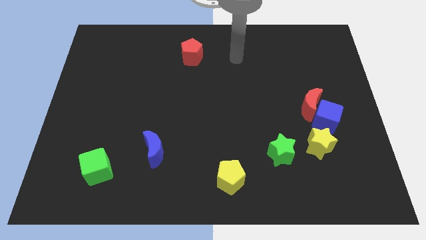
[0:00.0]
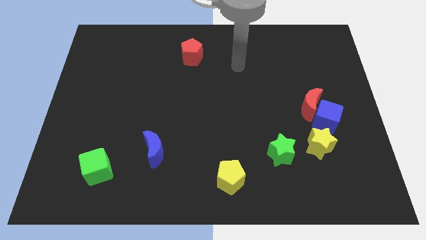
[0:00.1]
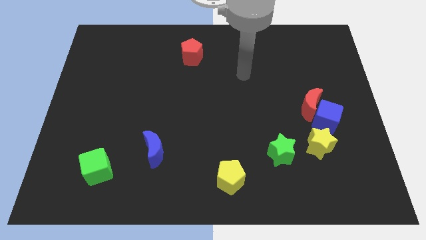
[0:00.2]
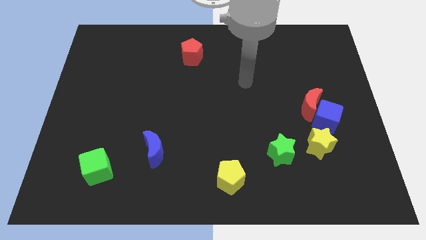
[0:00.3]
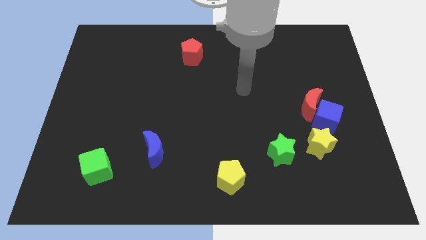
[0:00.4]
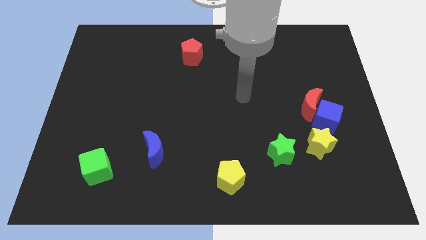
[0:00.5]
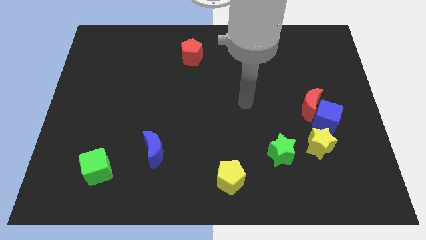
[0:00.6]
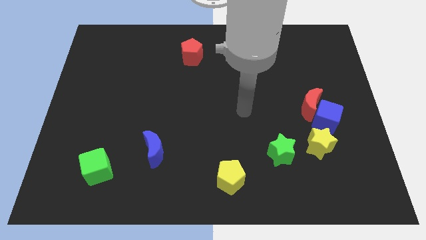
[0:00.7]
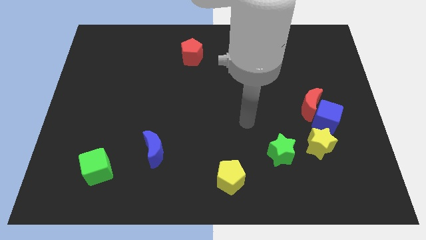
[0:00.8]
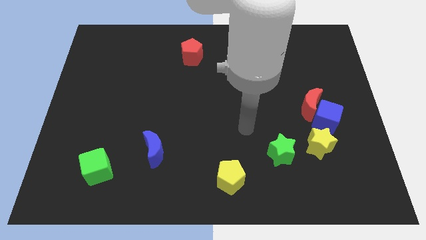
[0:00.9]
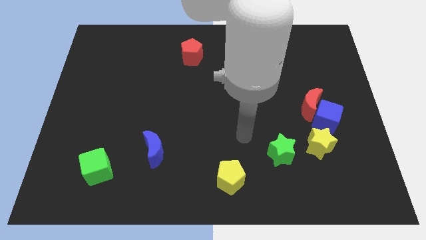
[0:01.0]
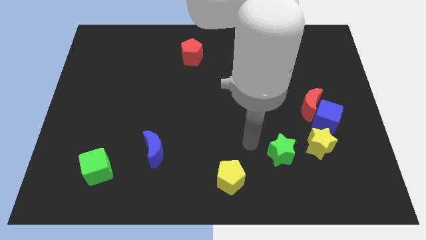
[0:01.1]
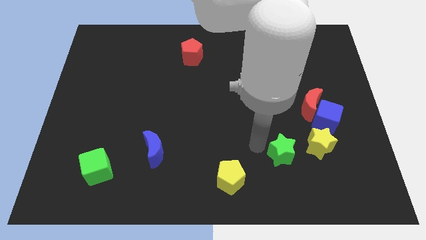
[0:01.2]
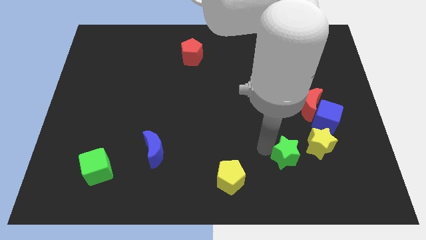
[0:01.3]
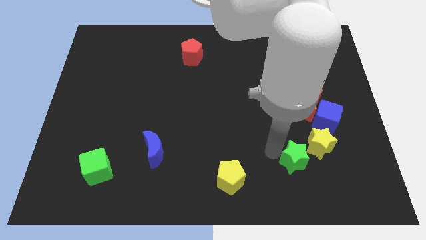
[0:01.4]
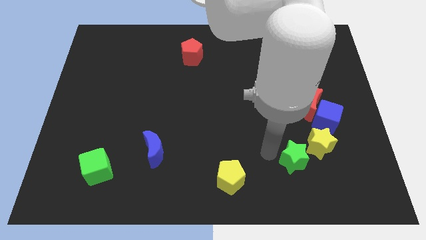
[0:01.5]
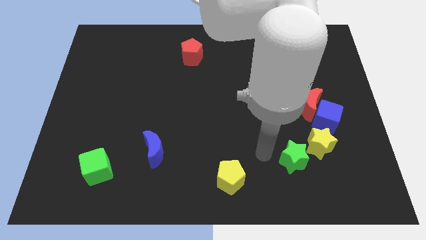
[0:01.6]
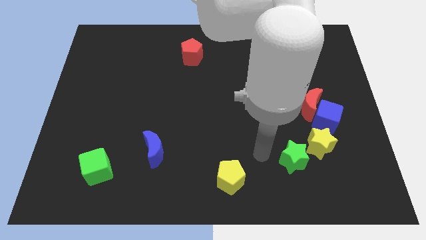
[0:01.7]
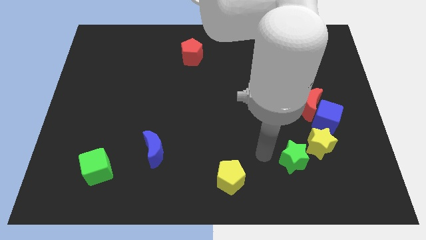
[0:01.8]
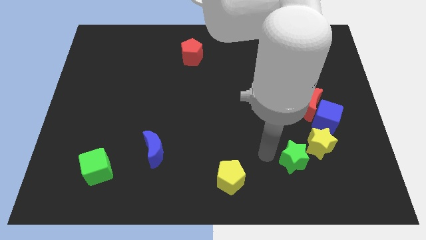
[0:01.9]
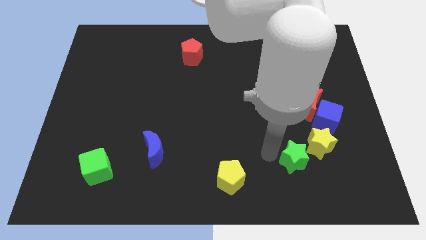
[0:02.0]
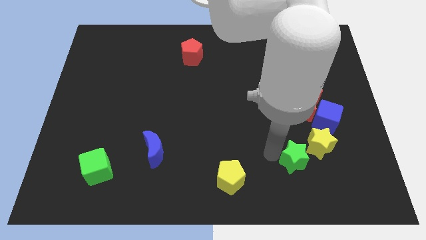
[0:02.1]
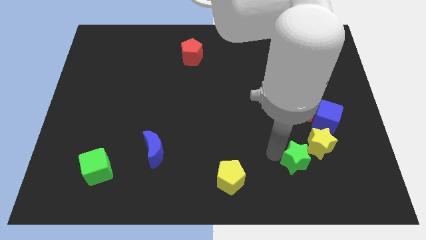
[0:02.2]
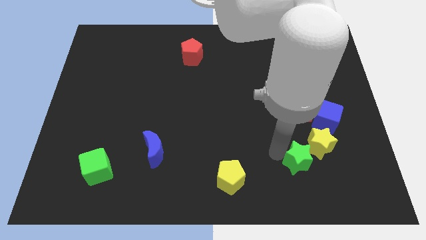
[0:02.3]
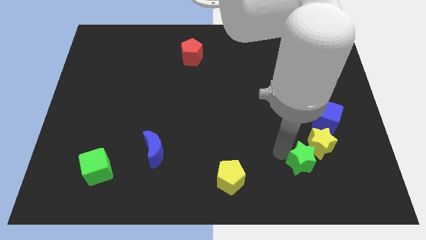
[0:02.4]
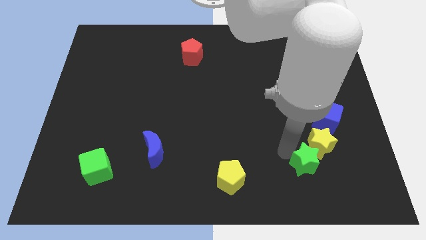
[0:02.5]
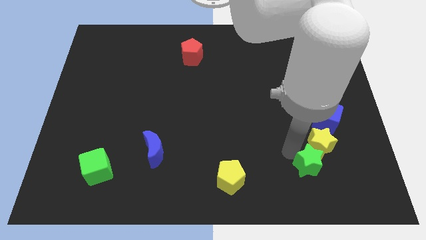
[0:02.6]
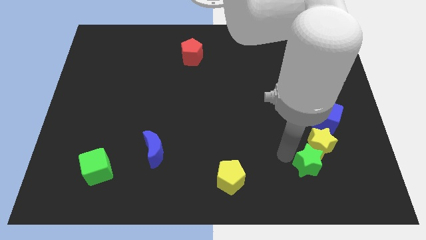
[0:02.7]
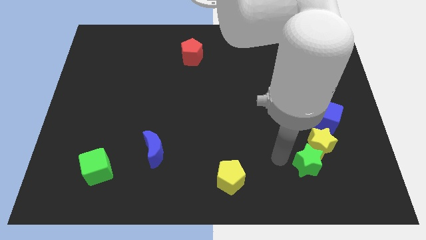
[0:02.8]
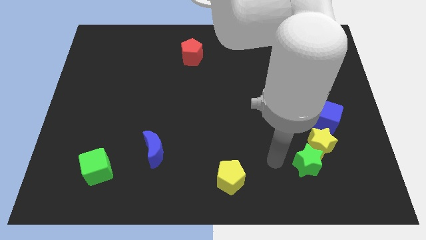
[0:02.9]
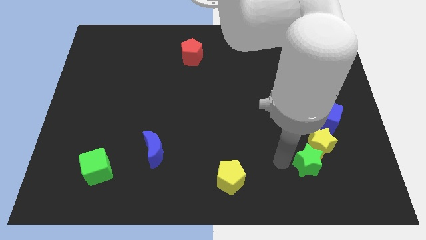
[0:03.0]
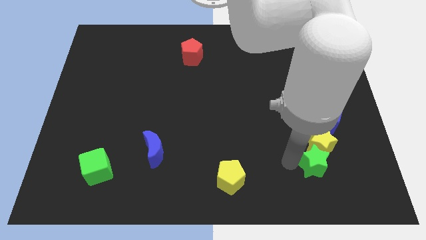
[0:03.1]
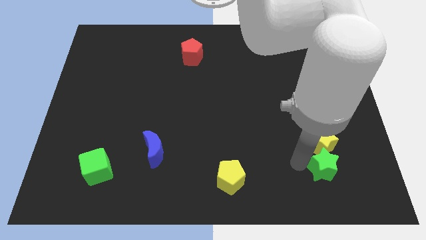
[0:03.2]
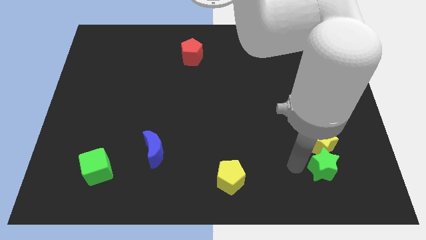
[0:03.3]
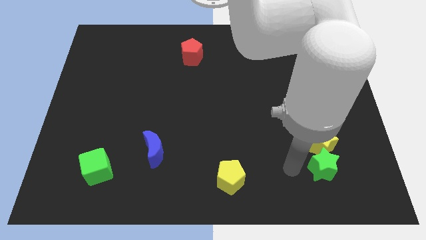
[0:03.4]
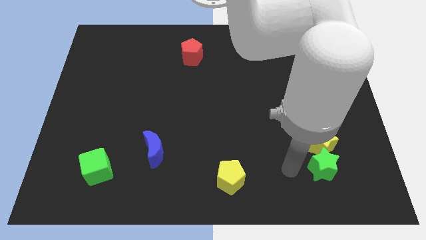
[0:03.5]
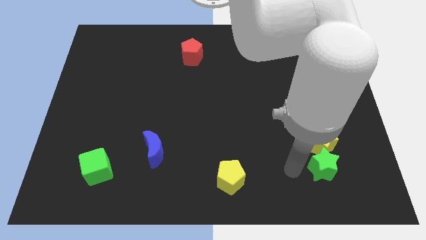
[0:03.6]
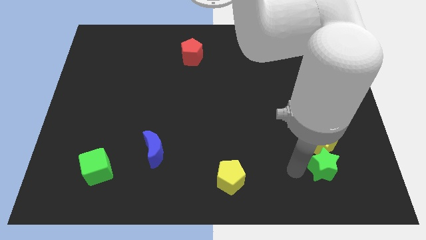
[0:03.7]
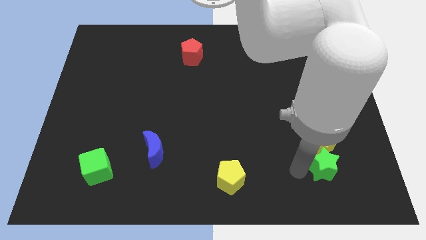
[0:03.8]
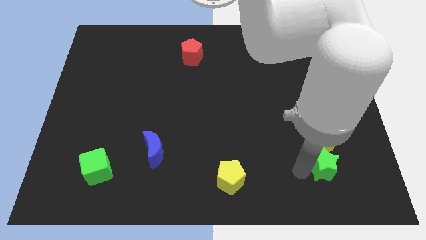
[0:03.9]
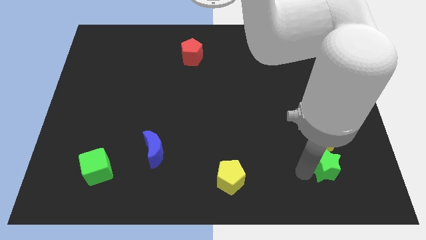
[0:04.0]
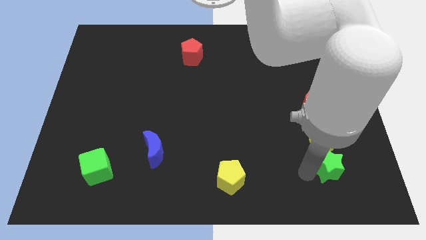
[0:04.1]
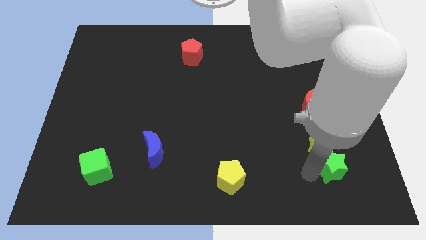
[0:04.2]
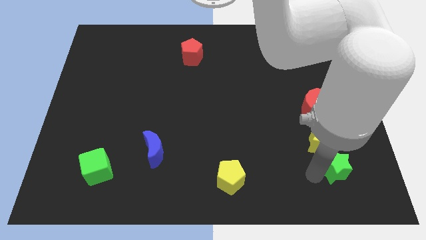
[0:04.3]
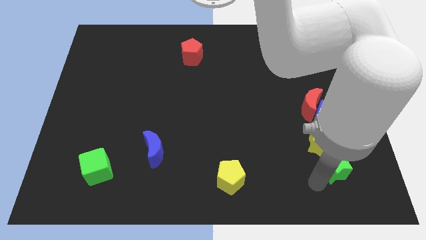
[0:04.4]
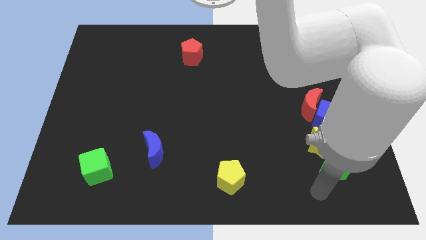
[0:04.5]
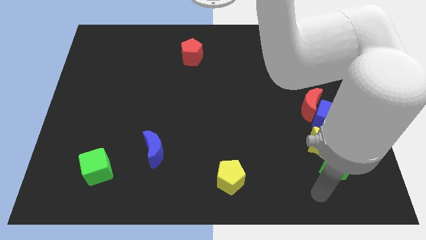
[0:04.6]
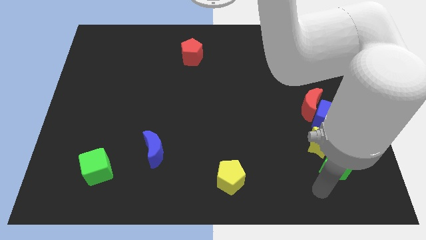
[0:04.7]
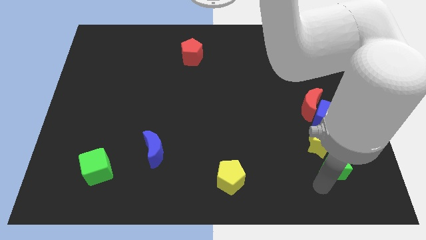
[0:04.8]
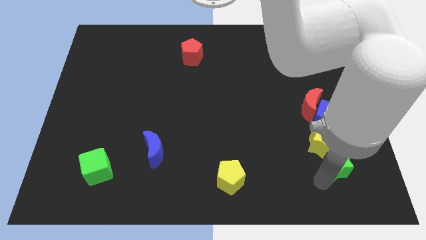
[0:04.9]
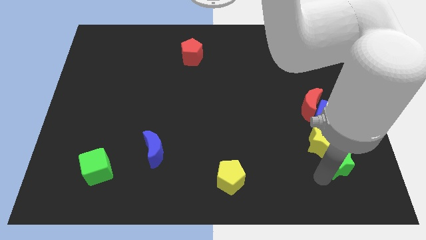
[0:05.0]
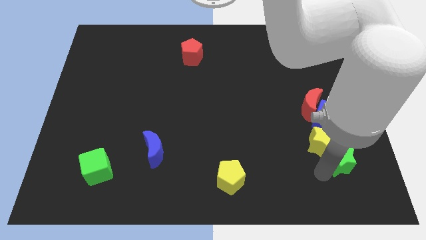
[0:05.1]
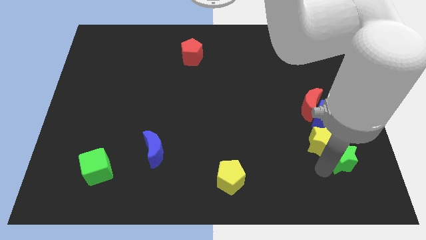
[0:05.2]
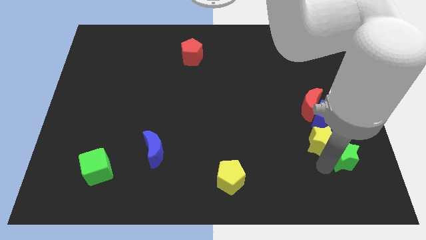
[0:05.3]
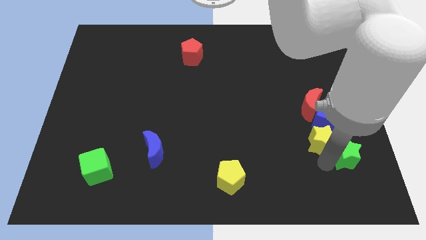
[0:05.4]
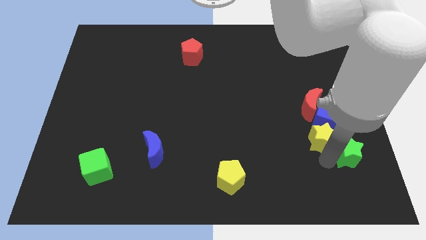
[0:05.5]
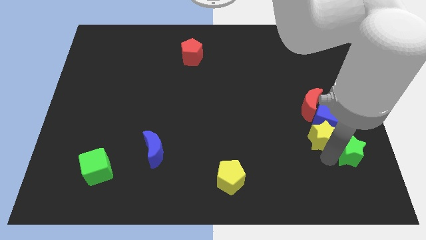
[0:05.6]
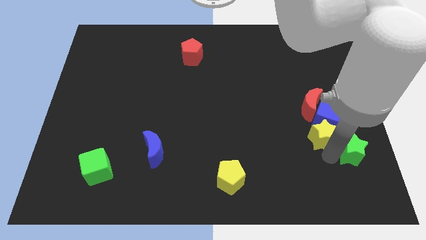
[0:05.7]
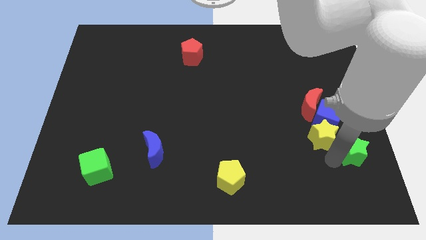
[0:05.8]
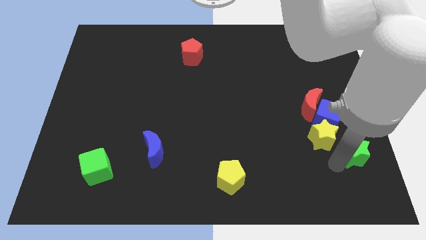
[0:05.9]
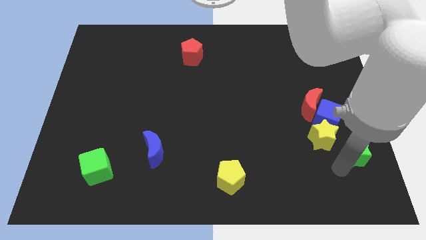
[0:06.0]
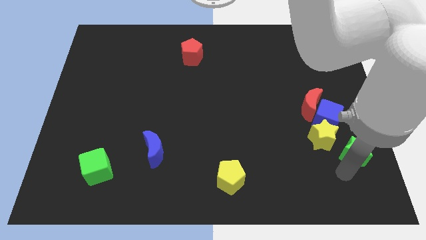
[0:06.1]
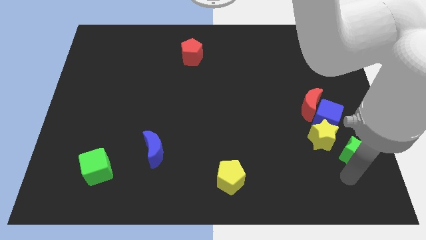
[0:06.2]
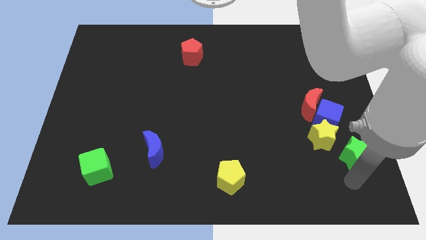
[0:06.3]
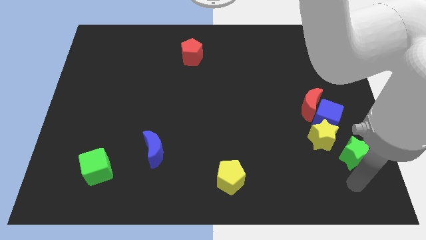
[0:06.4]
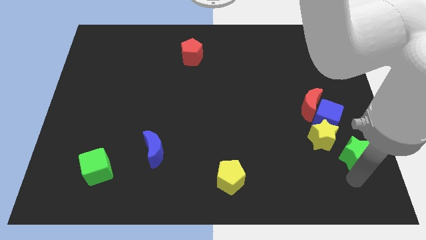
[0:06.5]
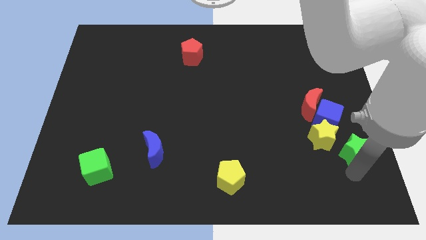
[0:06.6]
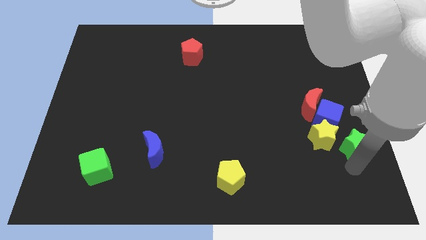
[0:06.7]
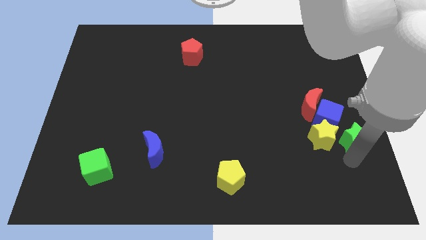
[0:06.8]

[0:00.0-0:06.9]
move the green star to the center right
